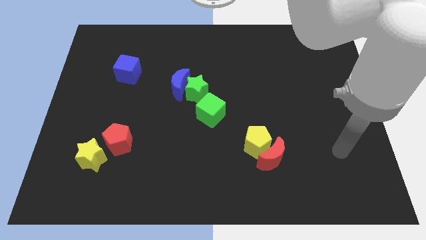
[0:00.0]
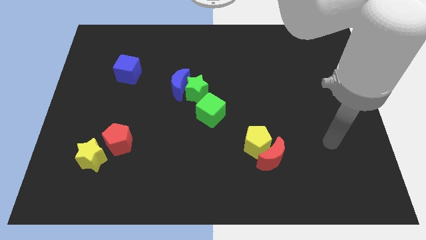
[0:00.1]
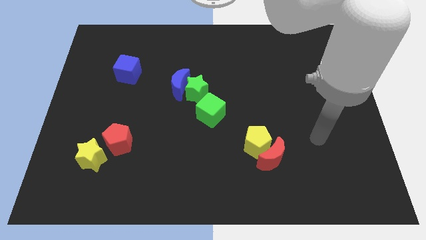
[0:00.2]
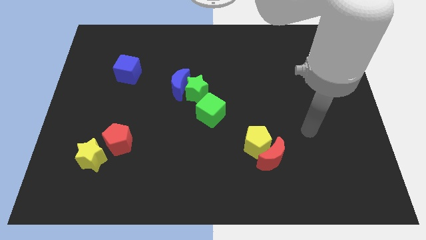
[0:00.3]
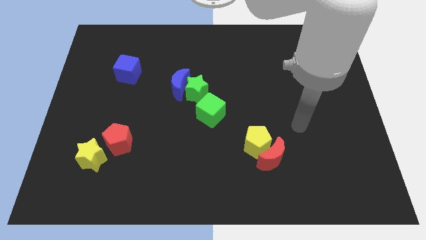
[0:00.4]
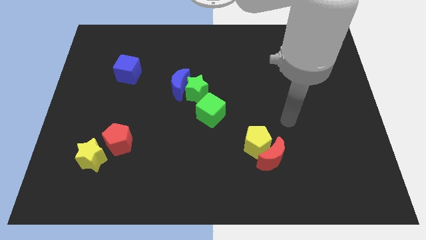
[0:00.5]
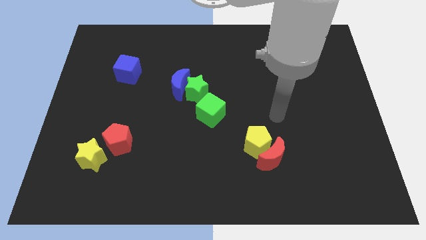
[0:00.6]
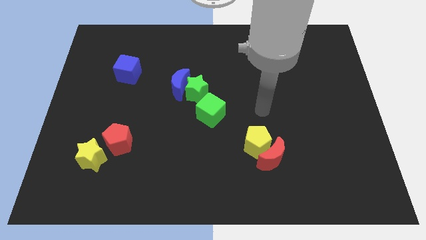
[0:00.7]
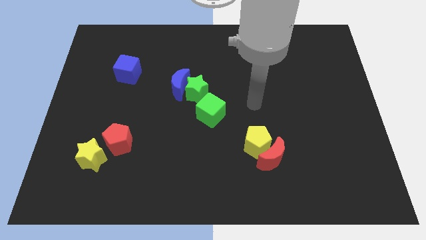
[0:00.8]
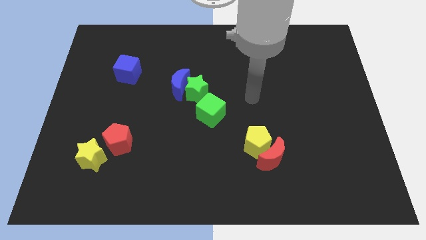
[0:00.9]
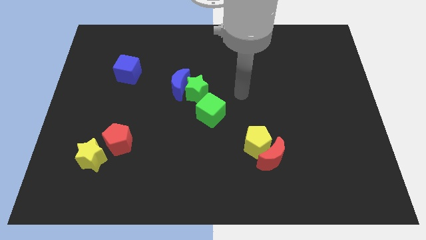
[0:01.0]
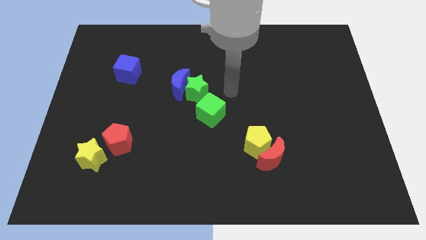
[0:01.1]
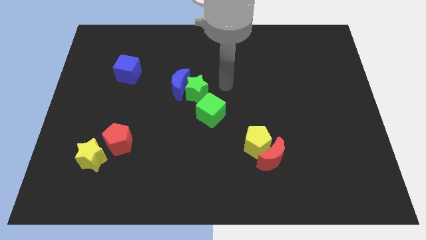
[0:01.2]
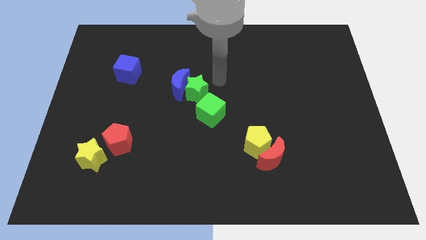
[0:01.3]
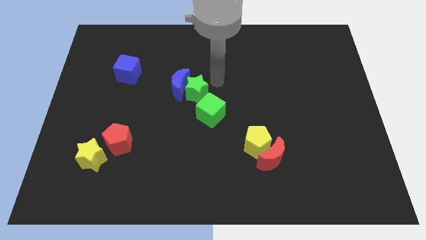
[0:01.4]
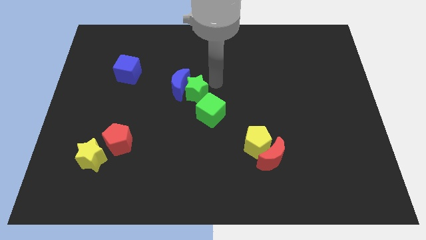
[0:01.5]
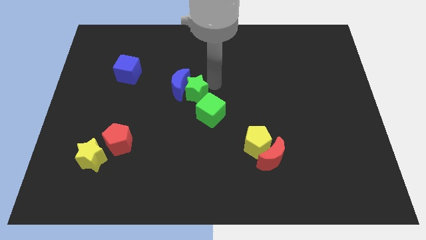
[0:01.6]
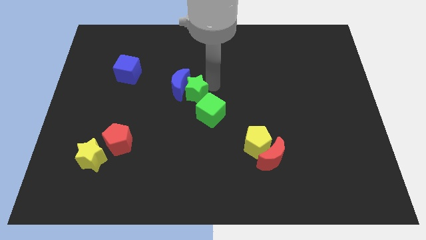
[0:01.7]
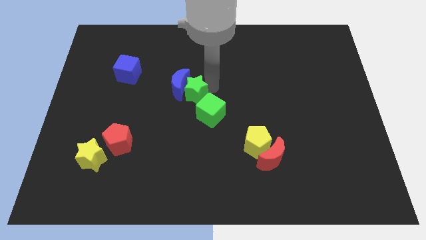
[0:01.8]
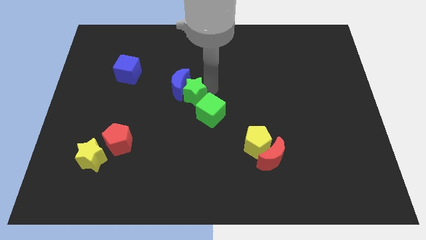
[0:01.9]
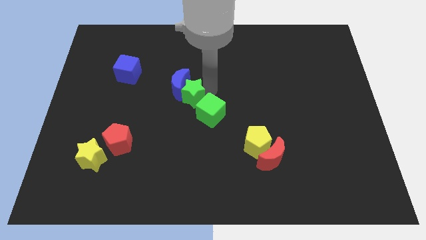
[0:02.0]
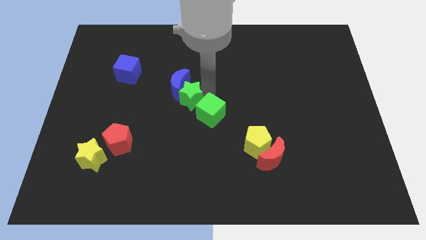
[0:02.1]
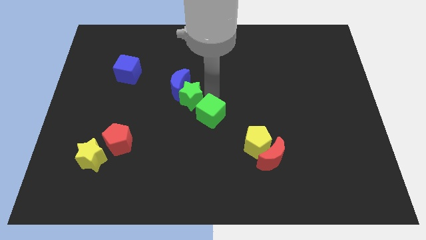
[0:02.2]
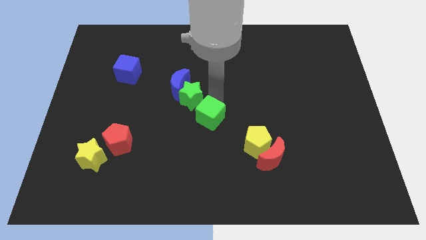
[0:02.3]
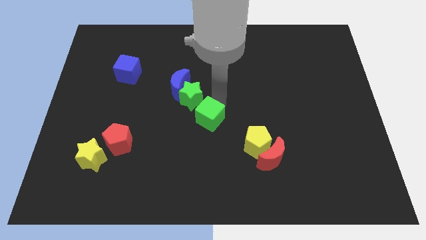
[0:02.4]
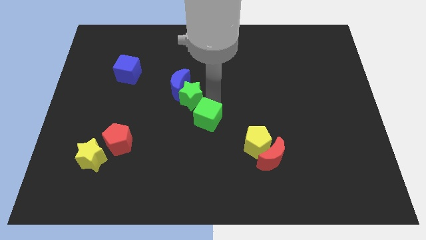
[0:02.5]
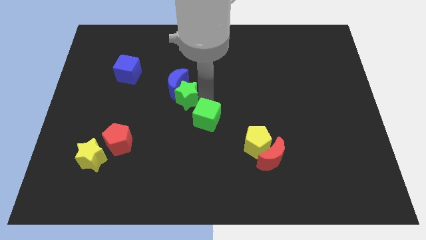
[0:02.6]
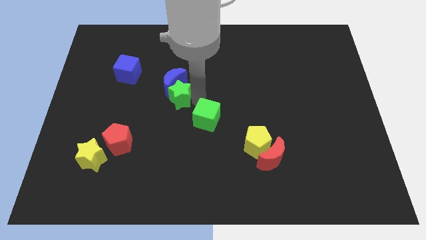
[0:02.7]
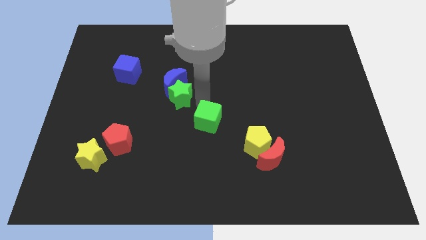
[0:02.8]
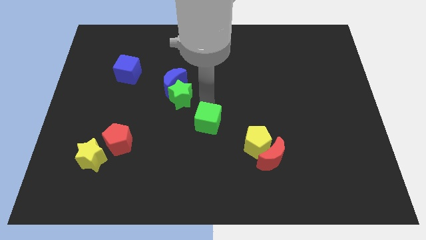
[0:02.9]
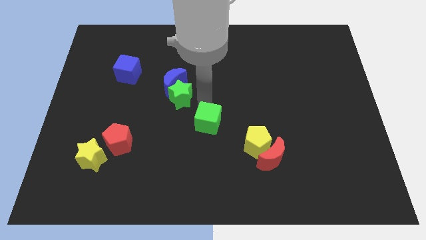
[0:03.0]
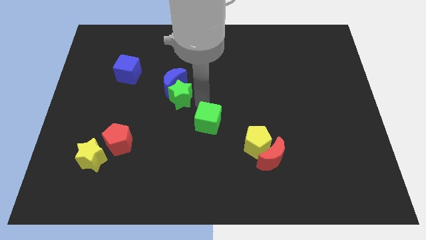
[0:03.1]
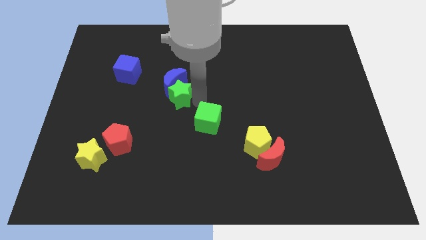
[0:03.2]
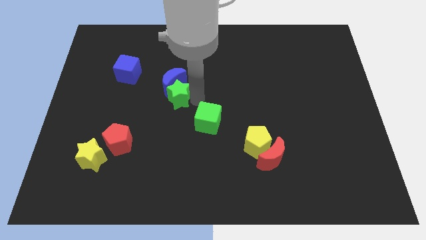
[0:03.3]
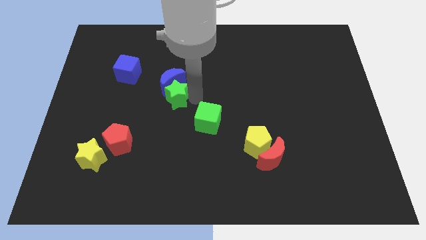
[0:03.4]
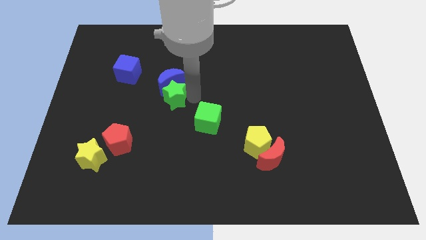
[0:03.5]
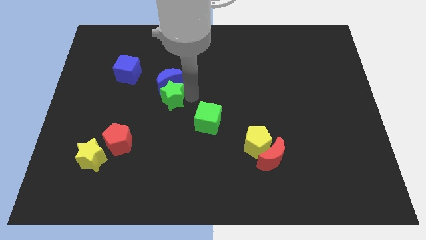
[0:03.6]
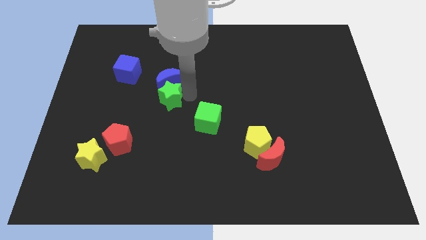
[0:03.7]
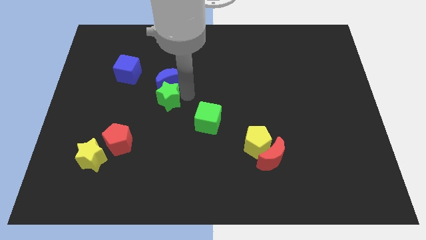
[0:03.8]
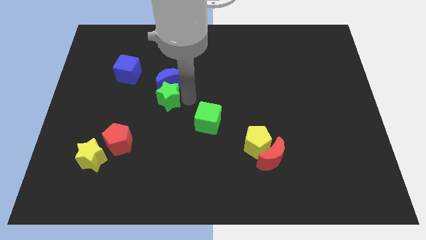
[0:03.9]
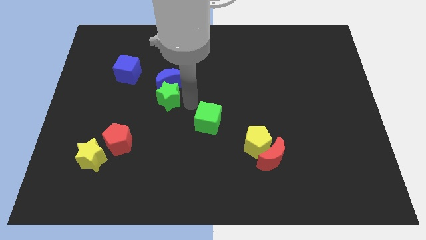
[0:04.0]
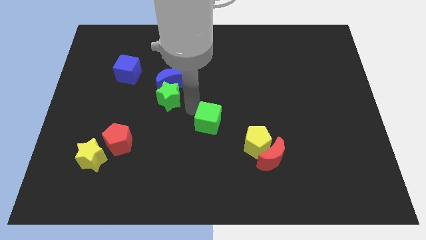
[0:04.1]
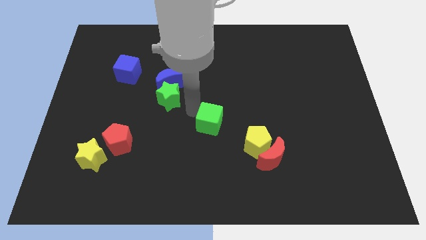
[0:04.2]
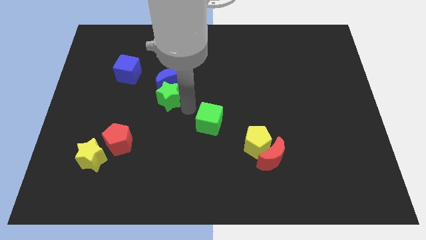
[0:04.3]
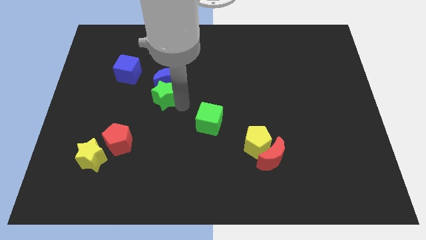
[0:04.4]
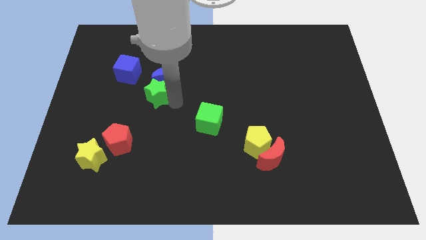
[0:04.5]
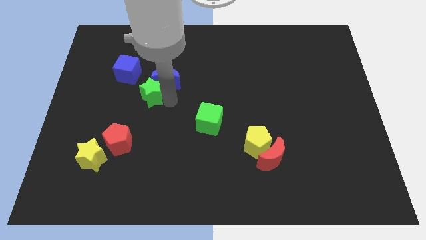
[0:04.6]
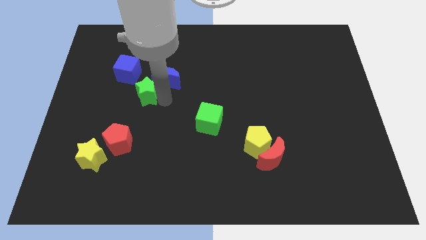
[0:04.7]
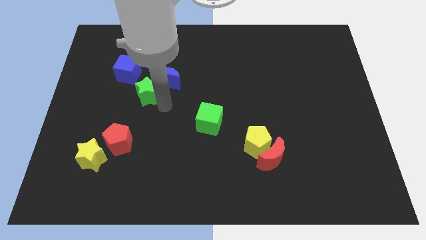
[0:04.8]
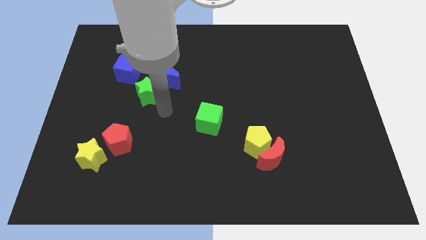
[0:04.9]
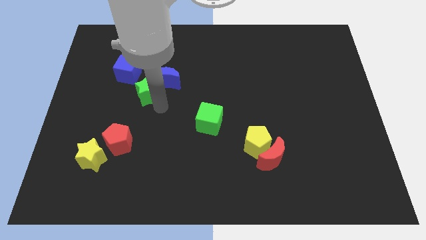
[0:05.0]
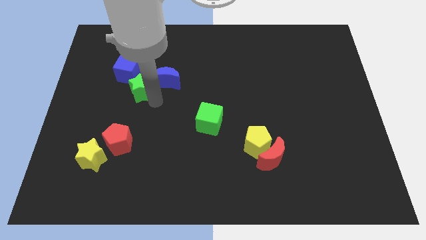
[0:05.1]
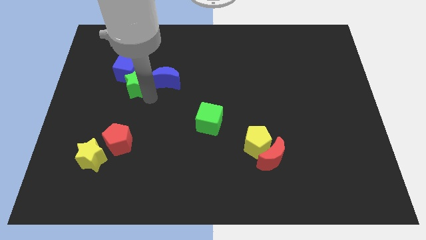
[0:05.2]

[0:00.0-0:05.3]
slide the green star next to the blue cube

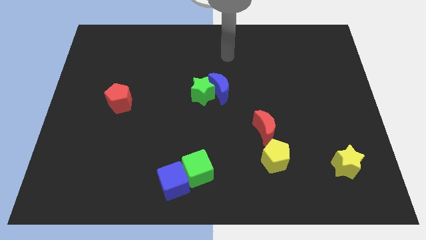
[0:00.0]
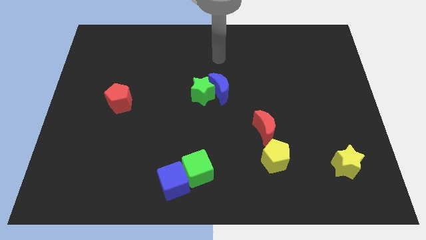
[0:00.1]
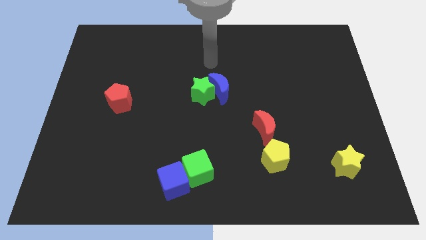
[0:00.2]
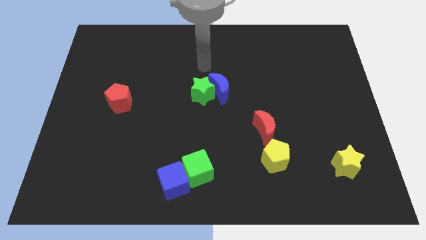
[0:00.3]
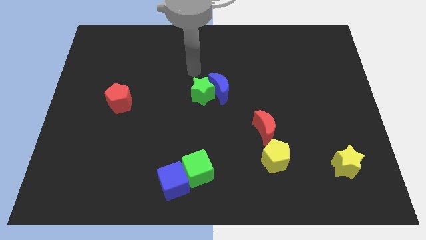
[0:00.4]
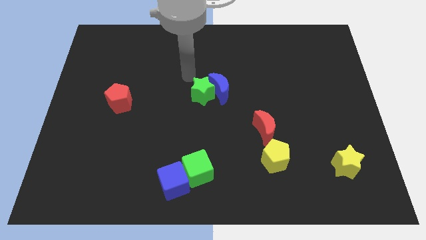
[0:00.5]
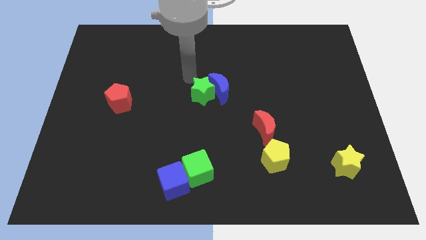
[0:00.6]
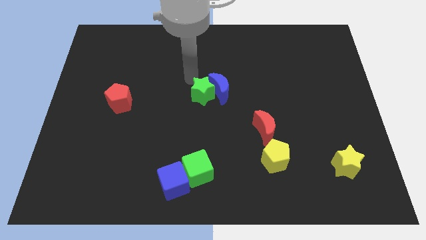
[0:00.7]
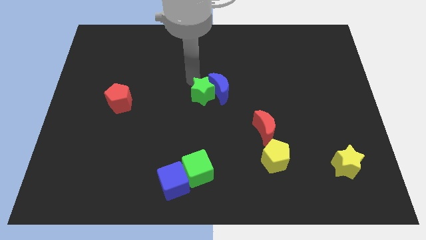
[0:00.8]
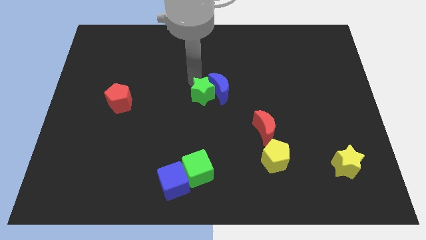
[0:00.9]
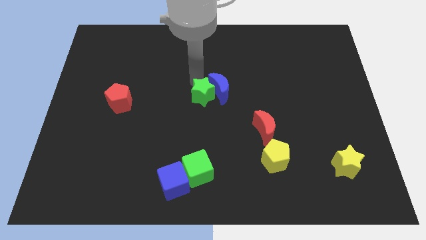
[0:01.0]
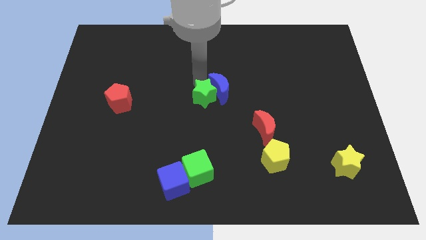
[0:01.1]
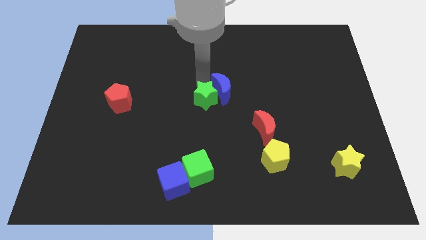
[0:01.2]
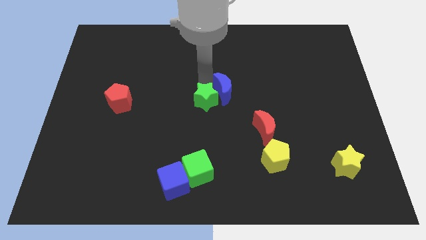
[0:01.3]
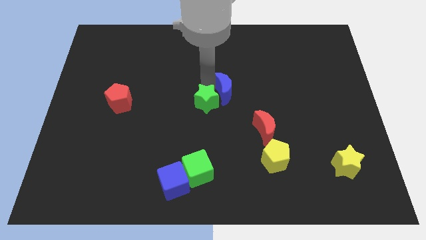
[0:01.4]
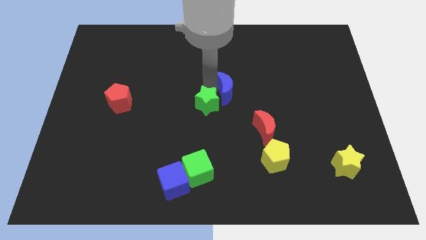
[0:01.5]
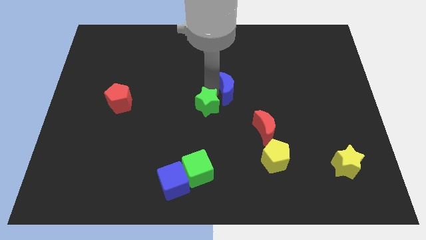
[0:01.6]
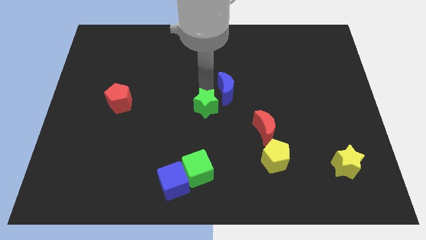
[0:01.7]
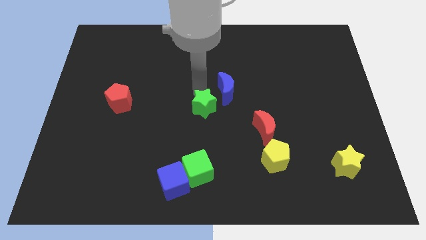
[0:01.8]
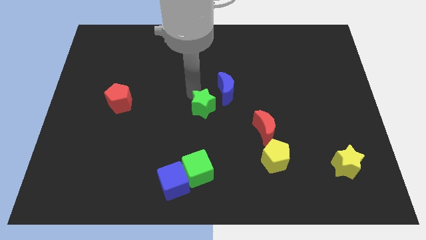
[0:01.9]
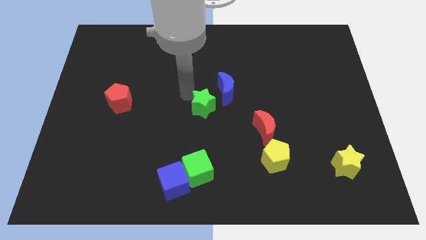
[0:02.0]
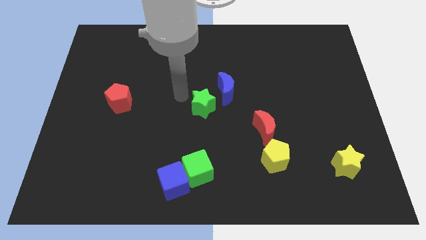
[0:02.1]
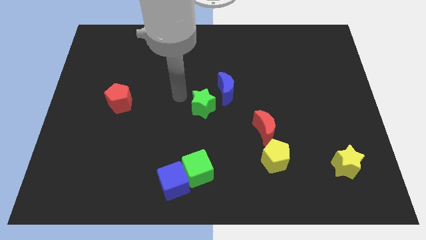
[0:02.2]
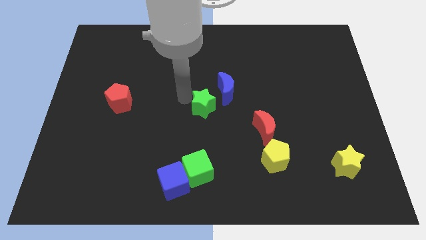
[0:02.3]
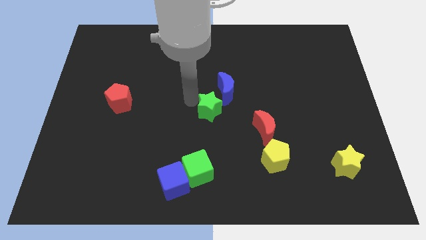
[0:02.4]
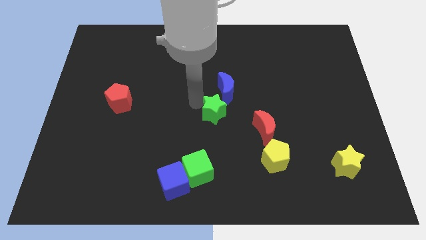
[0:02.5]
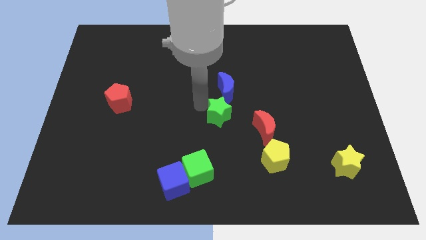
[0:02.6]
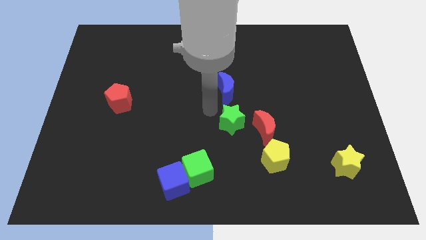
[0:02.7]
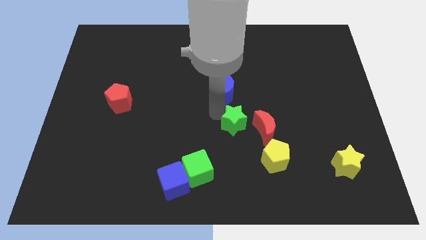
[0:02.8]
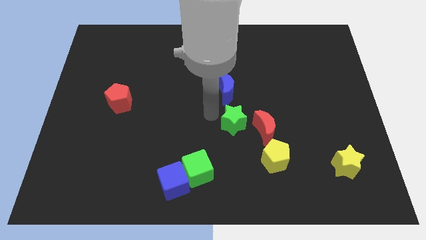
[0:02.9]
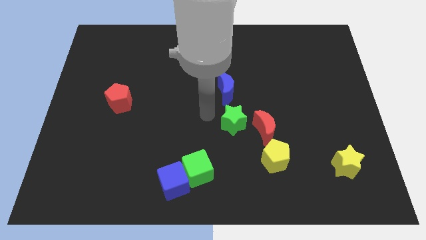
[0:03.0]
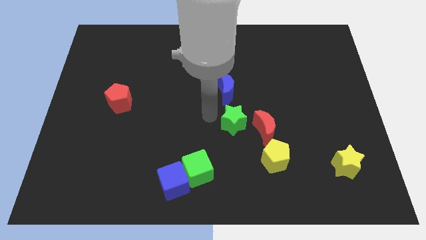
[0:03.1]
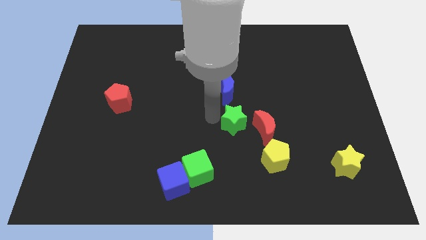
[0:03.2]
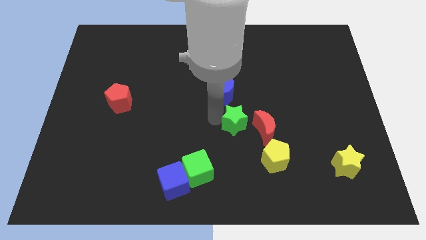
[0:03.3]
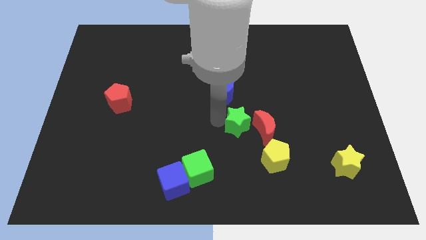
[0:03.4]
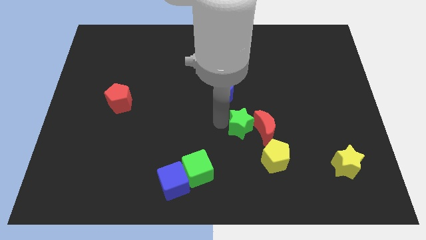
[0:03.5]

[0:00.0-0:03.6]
slide the green star towards the red moon
